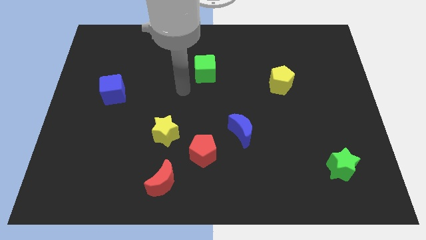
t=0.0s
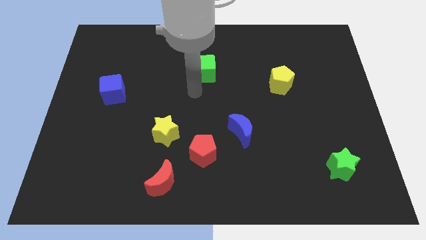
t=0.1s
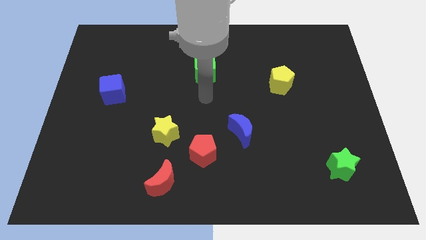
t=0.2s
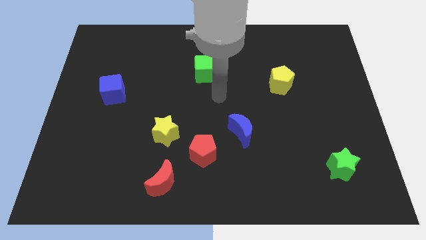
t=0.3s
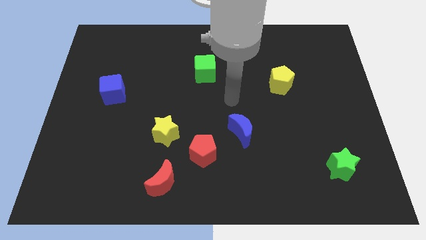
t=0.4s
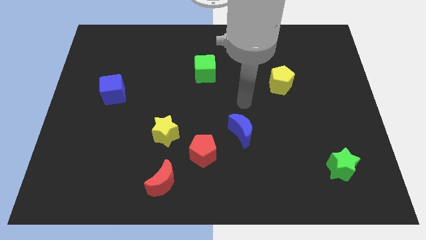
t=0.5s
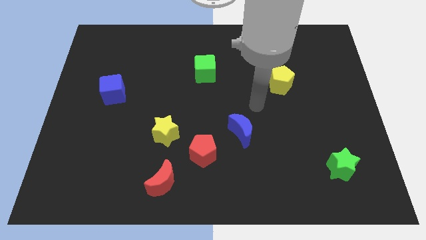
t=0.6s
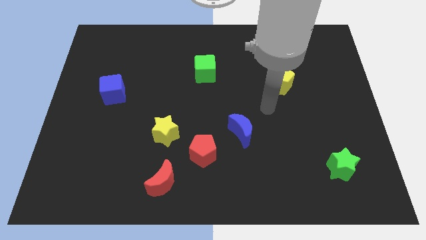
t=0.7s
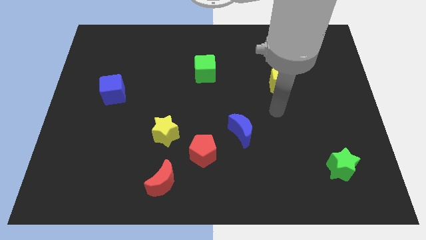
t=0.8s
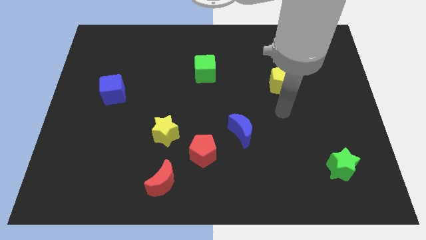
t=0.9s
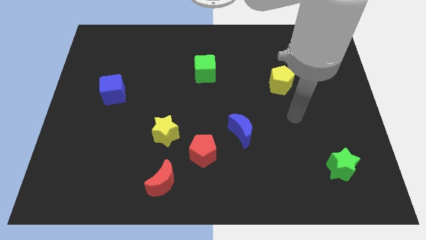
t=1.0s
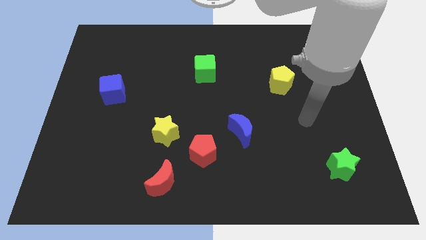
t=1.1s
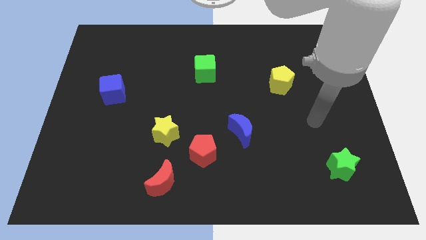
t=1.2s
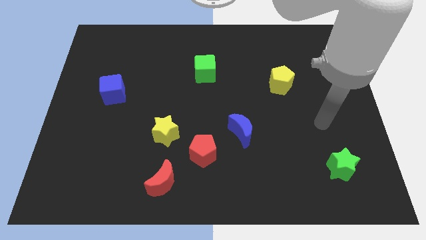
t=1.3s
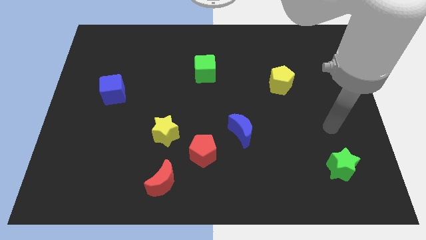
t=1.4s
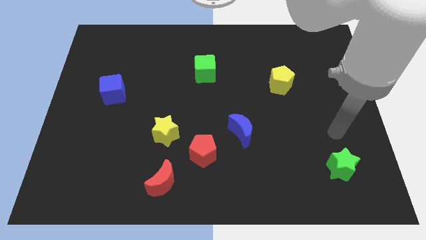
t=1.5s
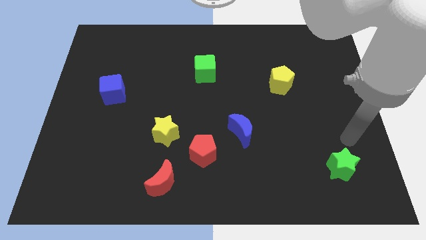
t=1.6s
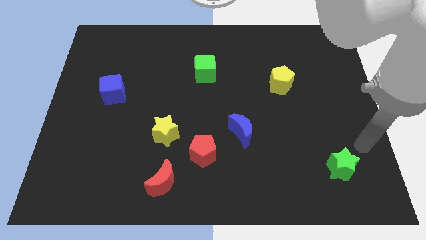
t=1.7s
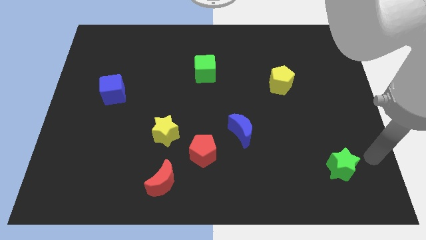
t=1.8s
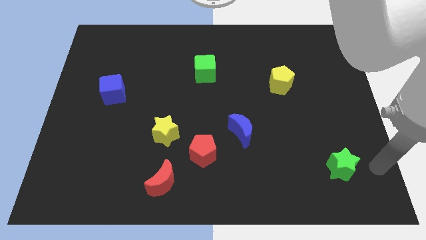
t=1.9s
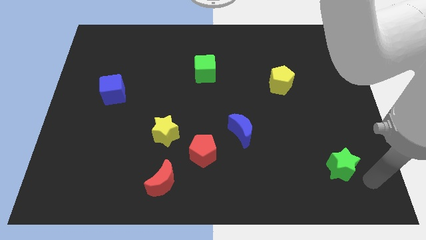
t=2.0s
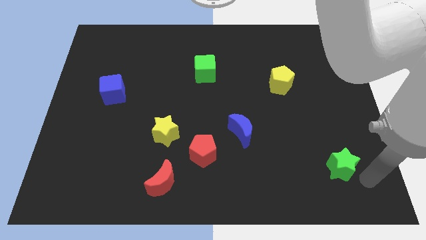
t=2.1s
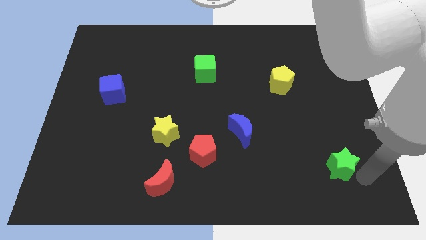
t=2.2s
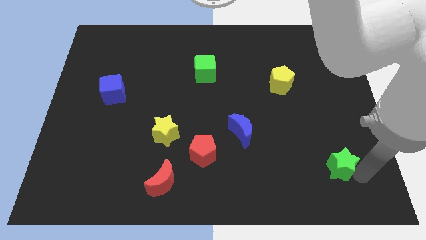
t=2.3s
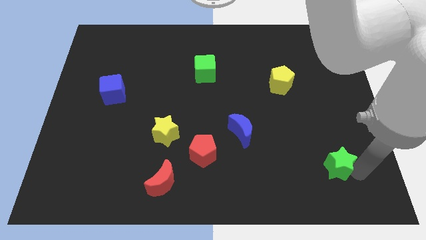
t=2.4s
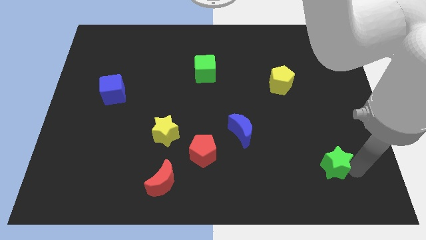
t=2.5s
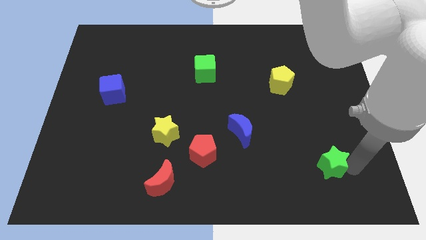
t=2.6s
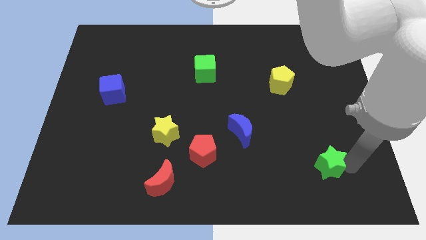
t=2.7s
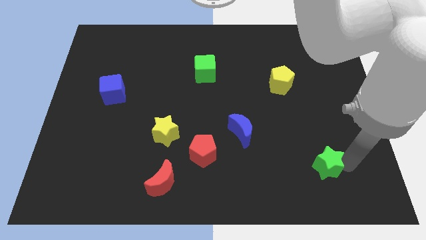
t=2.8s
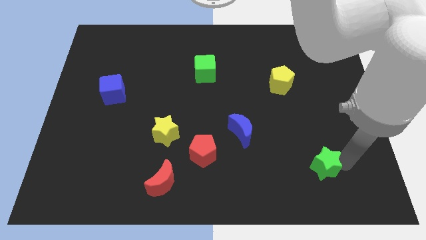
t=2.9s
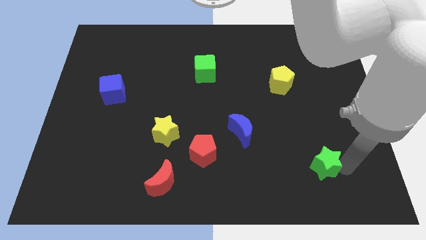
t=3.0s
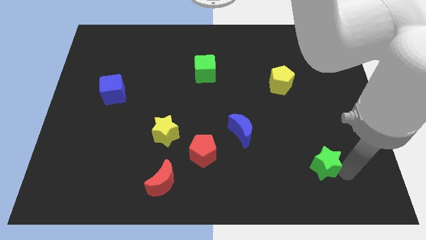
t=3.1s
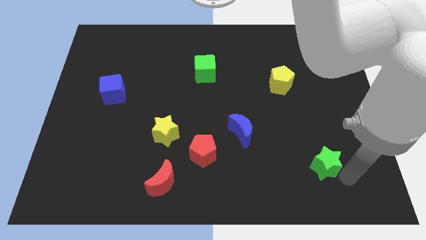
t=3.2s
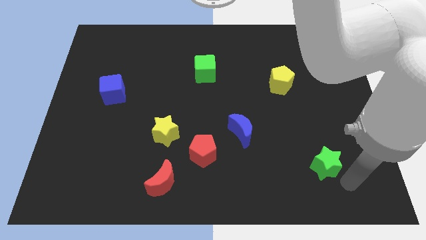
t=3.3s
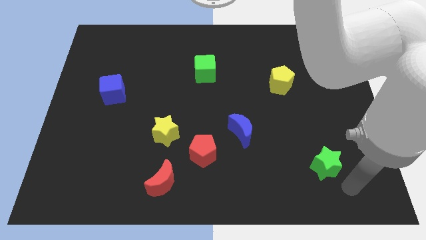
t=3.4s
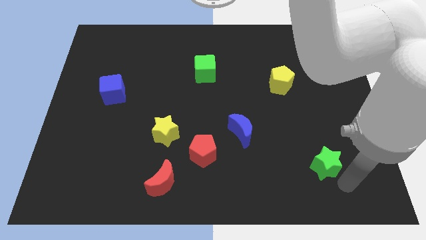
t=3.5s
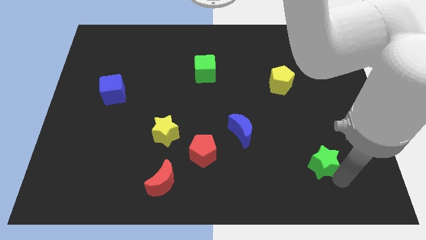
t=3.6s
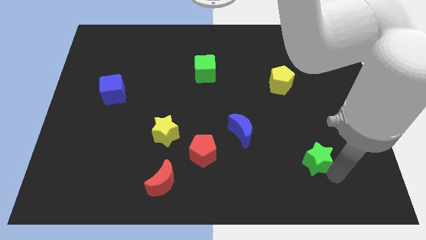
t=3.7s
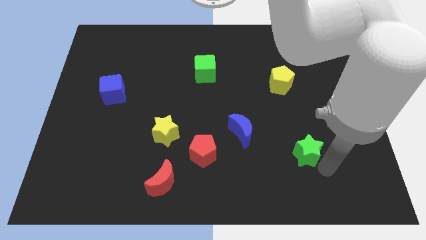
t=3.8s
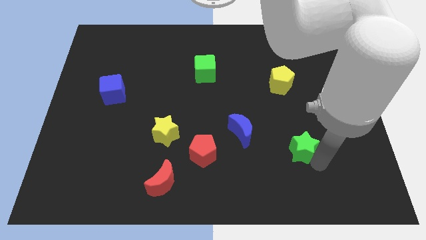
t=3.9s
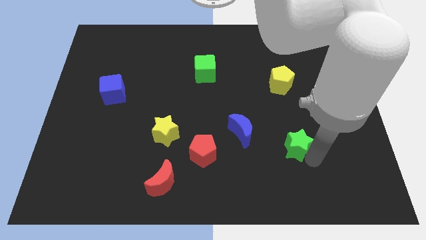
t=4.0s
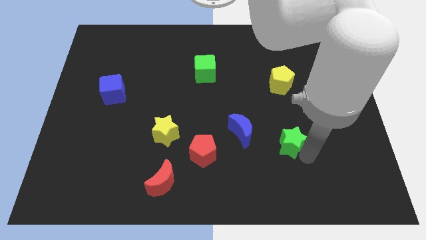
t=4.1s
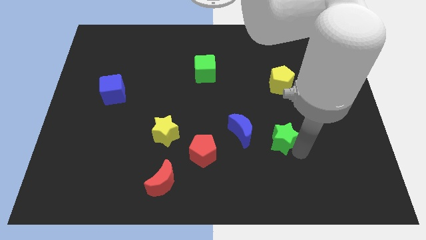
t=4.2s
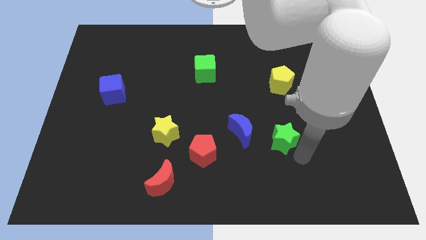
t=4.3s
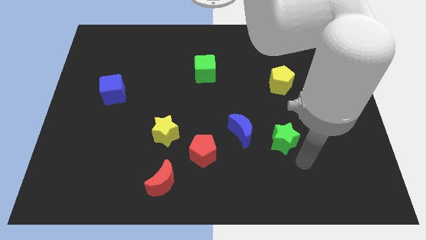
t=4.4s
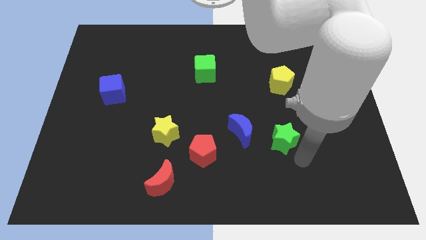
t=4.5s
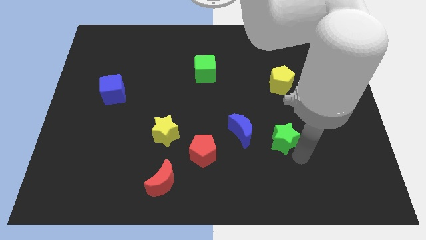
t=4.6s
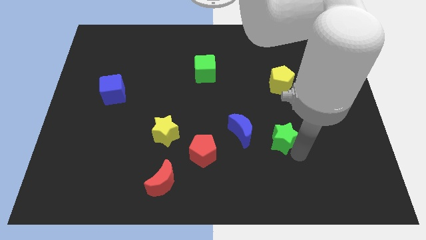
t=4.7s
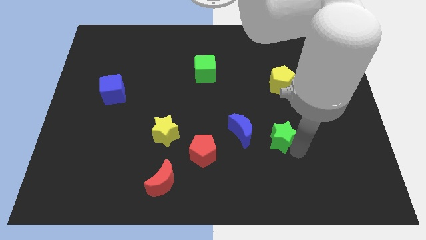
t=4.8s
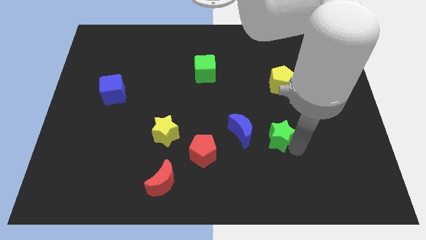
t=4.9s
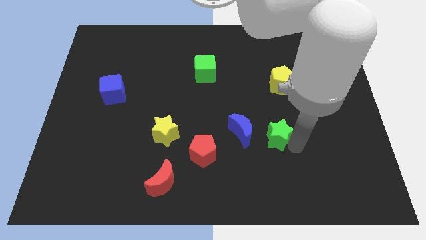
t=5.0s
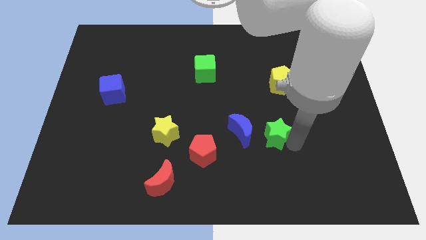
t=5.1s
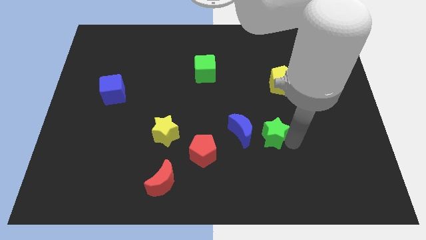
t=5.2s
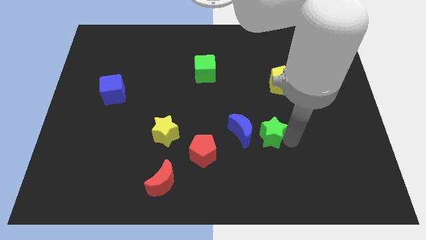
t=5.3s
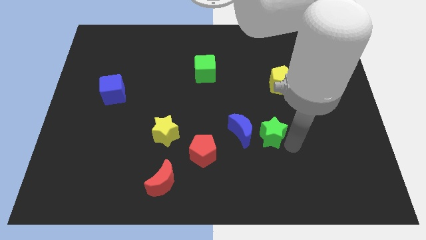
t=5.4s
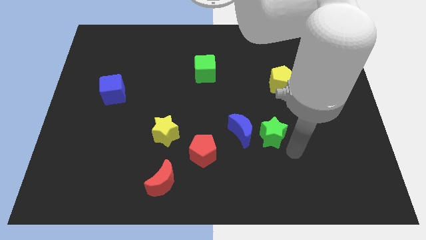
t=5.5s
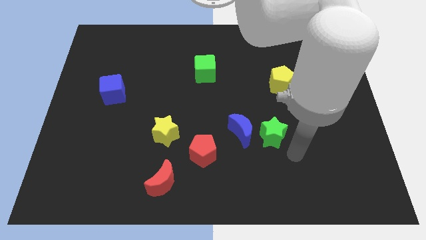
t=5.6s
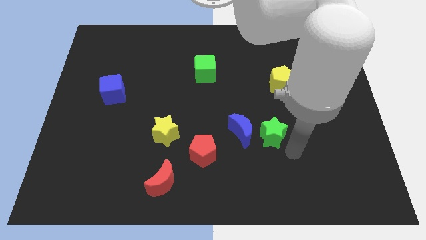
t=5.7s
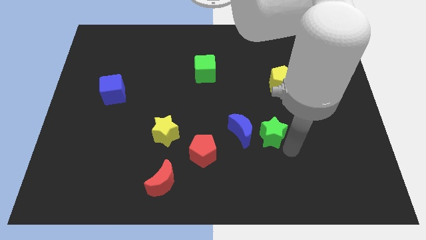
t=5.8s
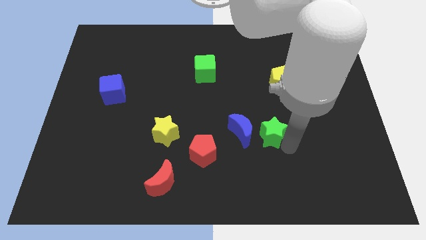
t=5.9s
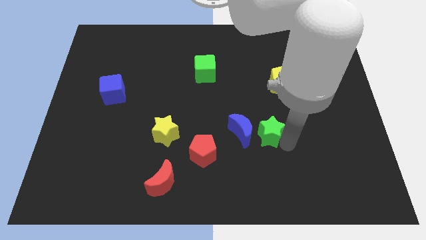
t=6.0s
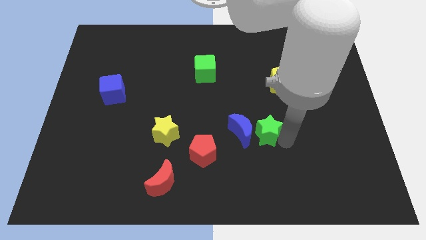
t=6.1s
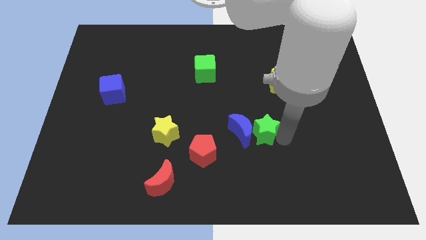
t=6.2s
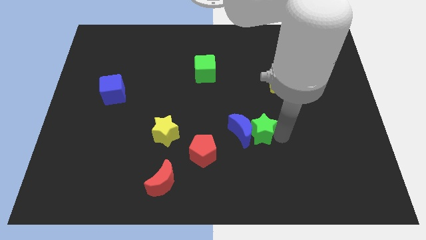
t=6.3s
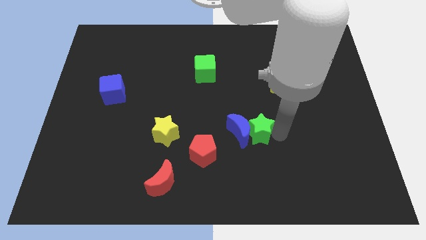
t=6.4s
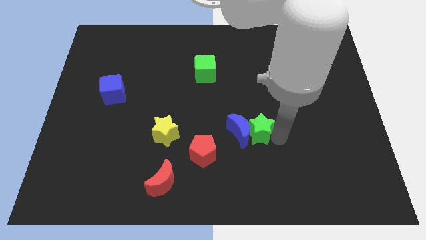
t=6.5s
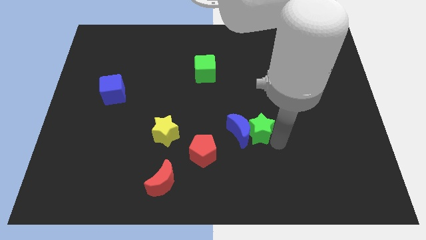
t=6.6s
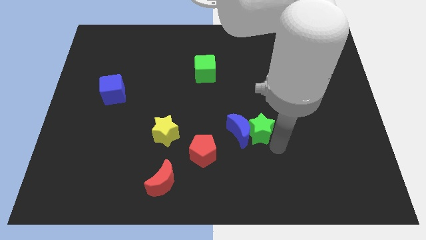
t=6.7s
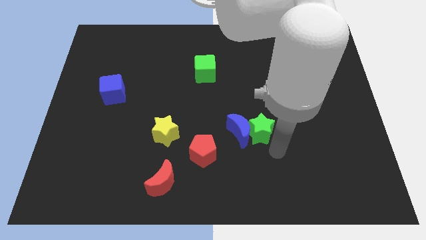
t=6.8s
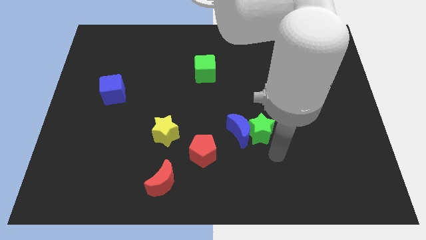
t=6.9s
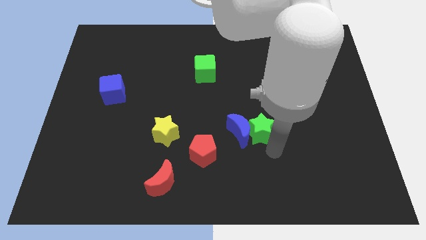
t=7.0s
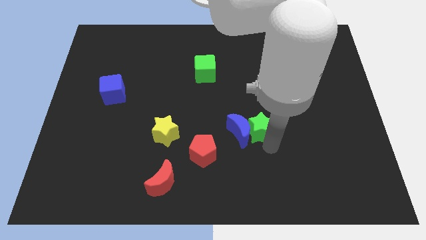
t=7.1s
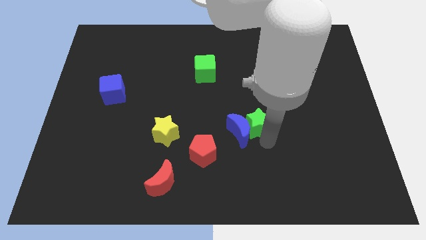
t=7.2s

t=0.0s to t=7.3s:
push the green star to the middle
